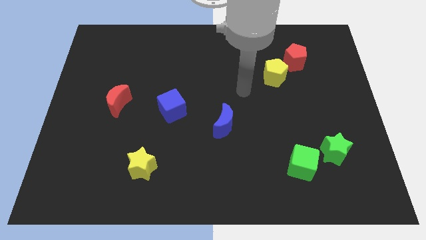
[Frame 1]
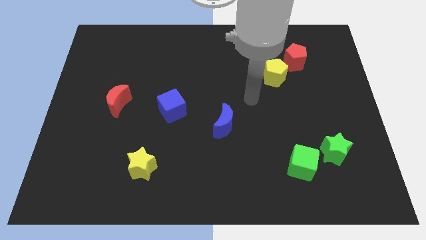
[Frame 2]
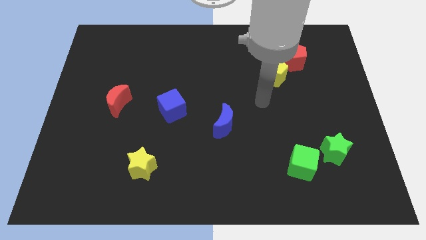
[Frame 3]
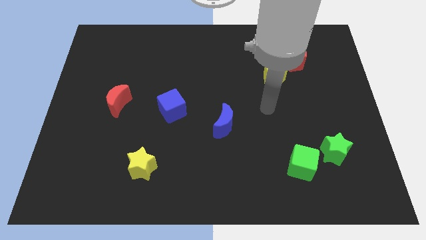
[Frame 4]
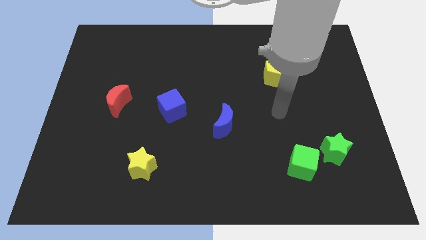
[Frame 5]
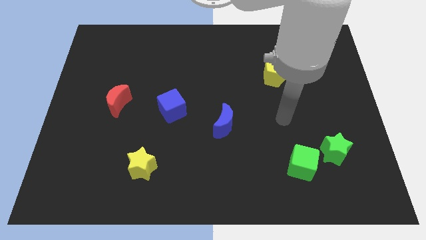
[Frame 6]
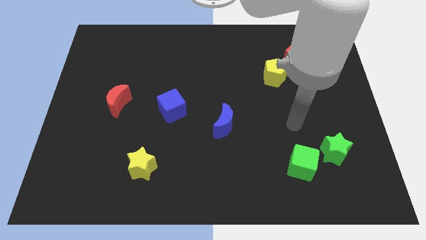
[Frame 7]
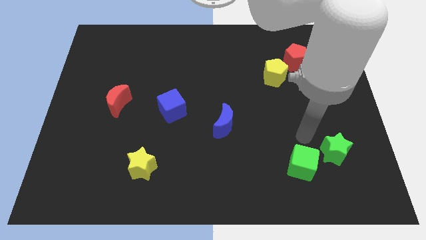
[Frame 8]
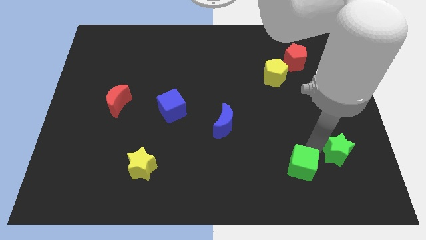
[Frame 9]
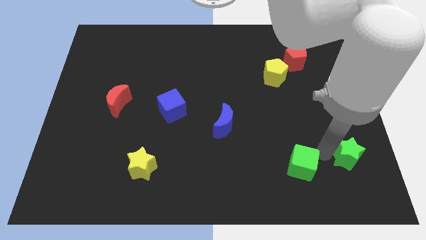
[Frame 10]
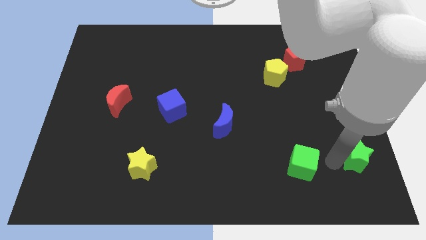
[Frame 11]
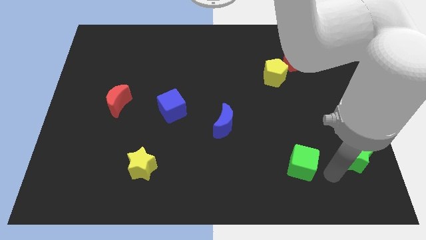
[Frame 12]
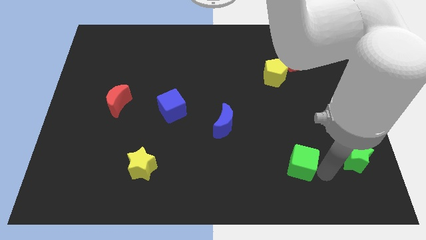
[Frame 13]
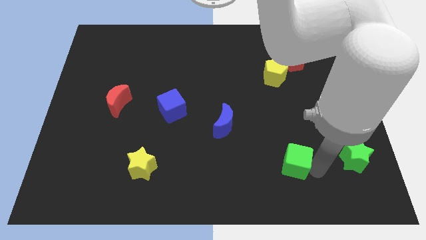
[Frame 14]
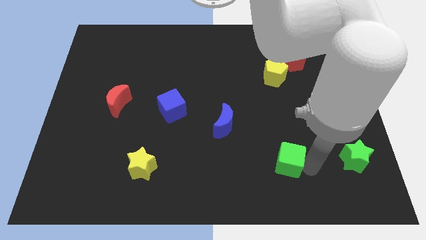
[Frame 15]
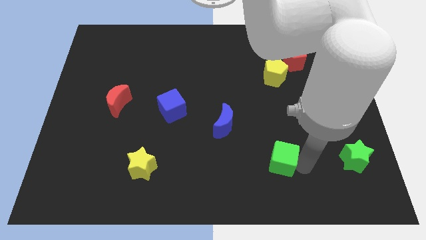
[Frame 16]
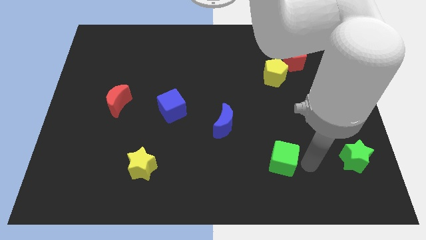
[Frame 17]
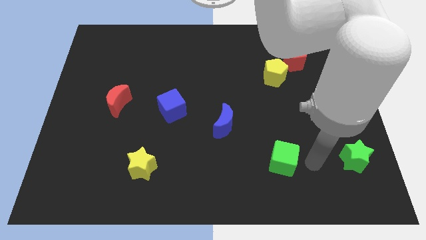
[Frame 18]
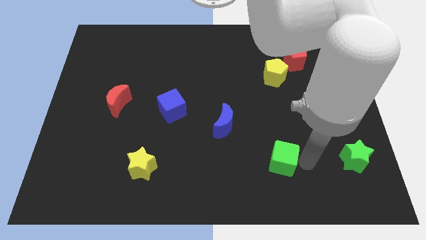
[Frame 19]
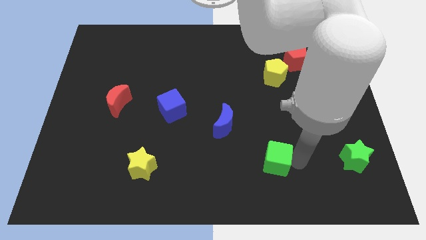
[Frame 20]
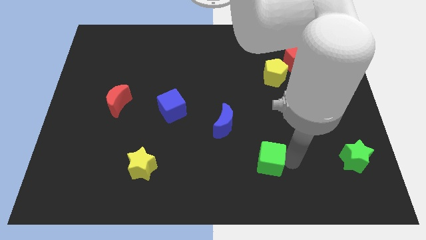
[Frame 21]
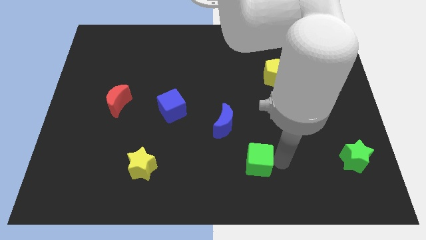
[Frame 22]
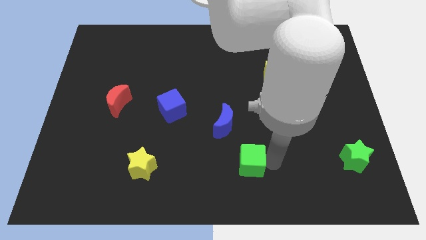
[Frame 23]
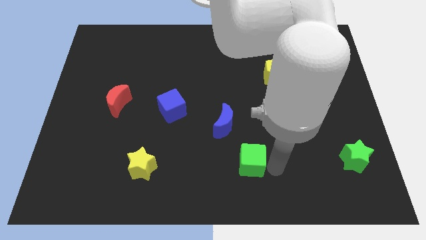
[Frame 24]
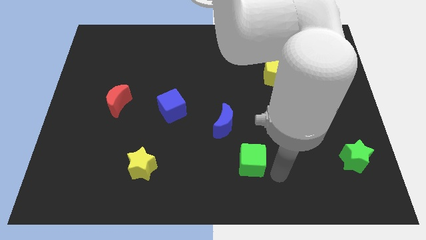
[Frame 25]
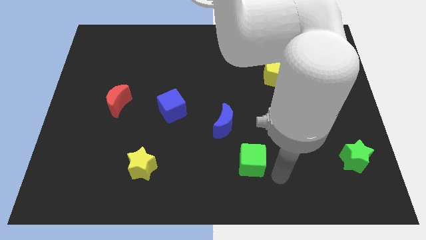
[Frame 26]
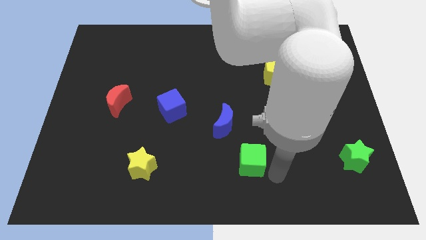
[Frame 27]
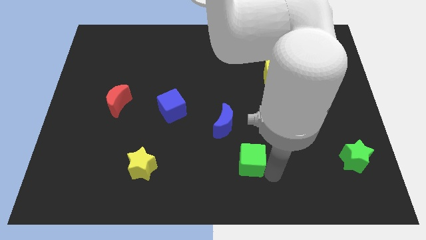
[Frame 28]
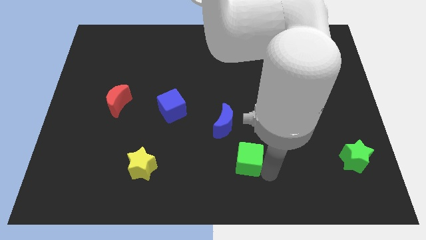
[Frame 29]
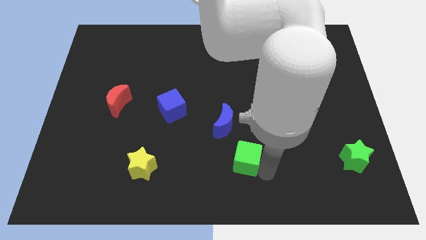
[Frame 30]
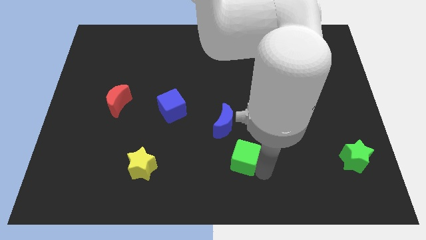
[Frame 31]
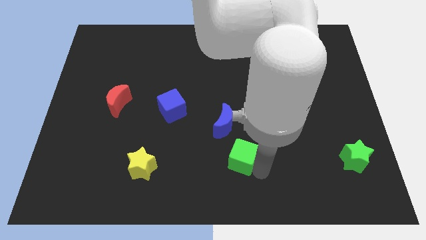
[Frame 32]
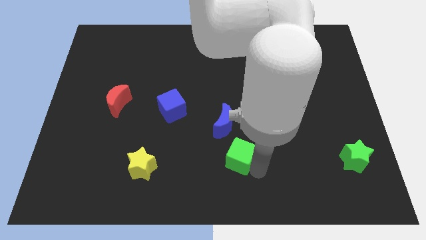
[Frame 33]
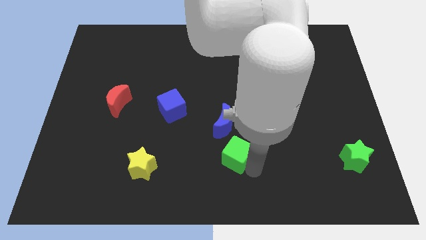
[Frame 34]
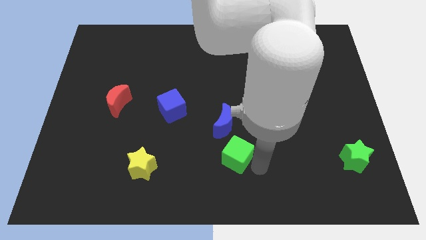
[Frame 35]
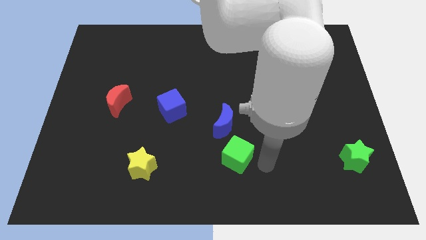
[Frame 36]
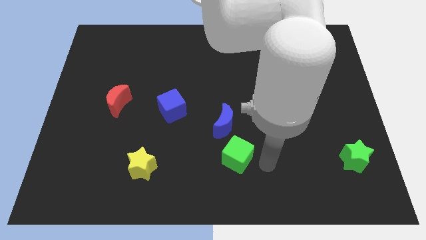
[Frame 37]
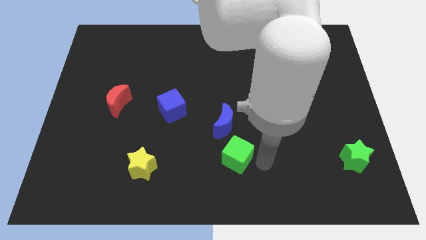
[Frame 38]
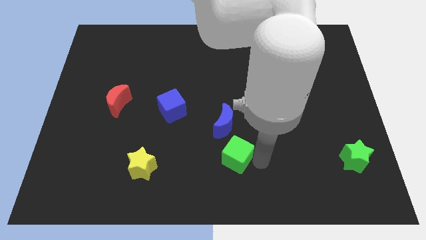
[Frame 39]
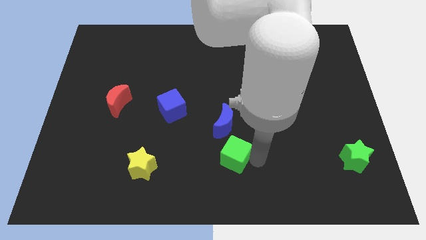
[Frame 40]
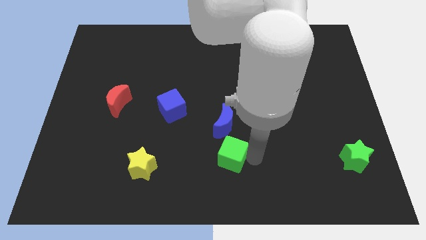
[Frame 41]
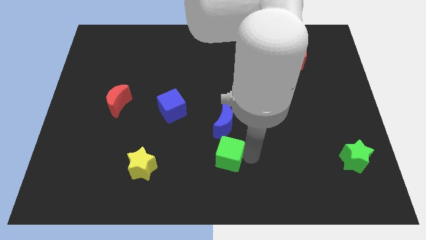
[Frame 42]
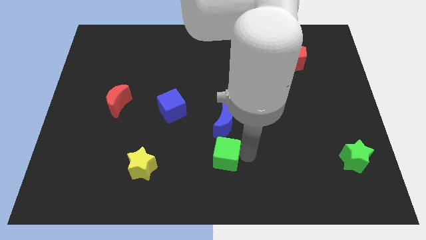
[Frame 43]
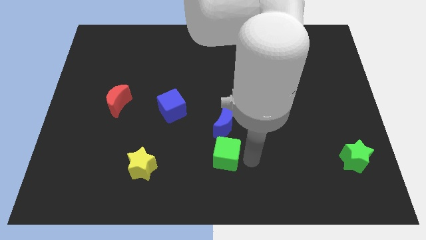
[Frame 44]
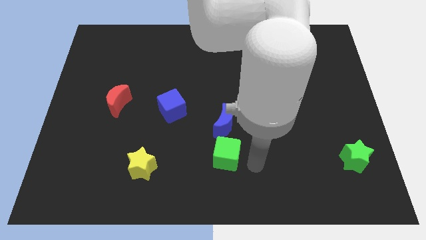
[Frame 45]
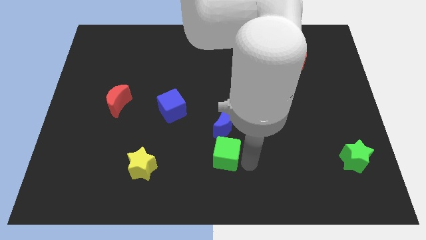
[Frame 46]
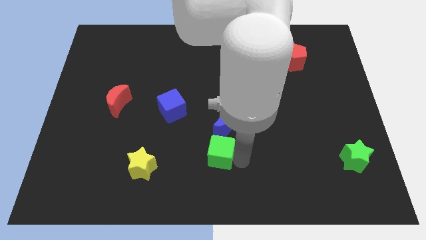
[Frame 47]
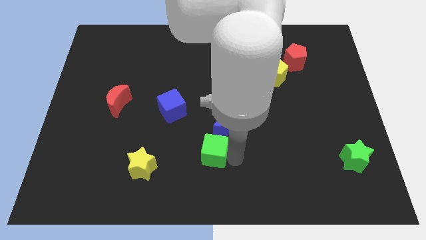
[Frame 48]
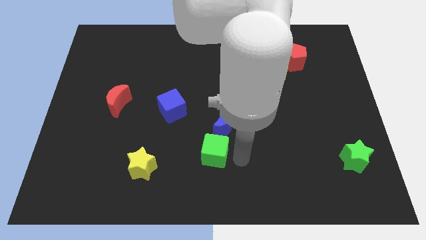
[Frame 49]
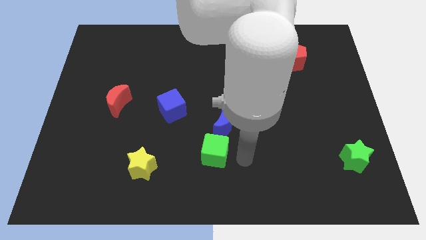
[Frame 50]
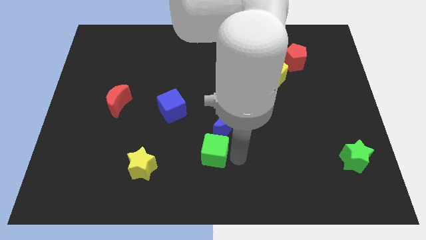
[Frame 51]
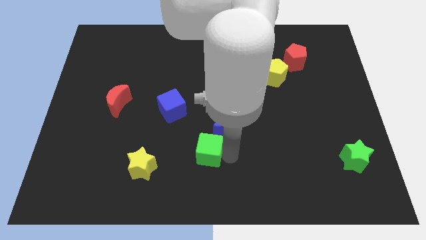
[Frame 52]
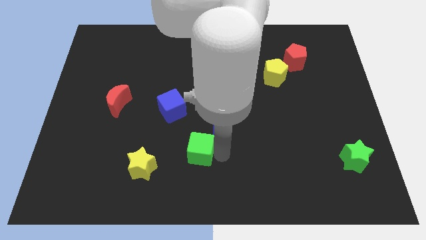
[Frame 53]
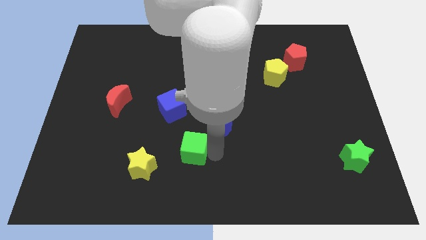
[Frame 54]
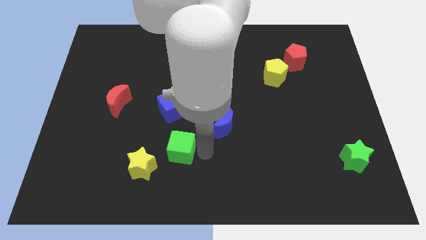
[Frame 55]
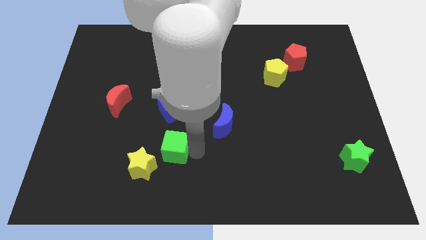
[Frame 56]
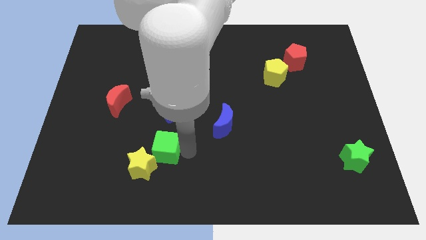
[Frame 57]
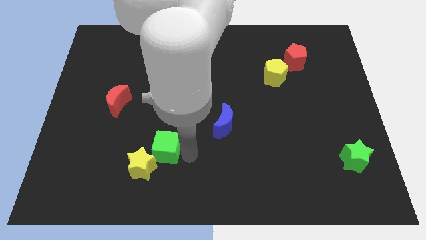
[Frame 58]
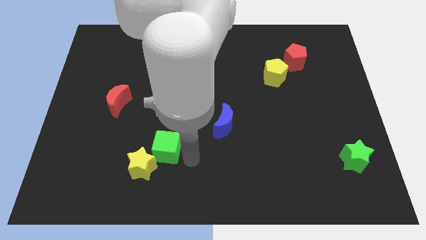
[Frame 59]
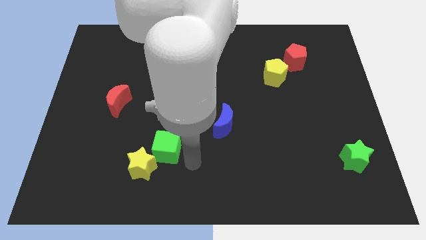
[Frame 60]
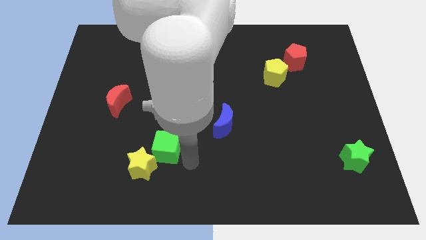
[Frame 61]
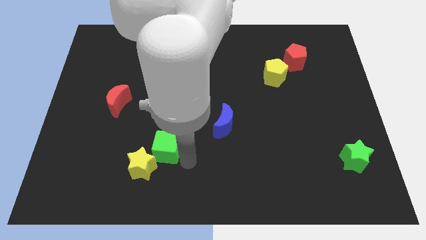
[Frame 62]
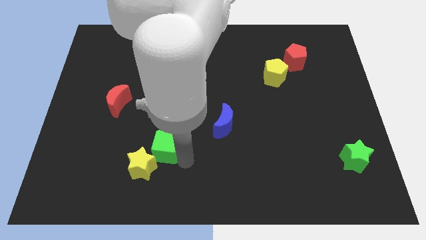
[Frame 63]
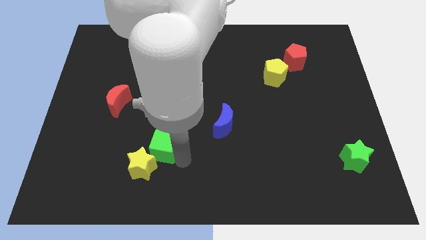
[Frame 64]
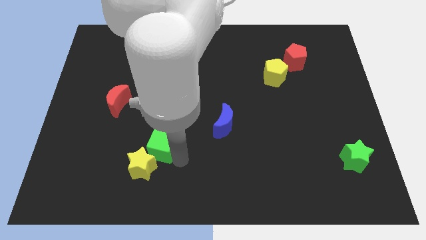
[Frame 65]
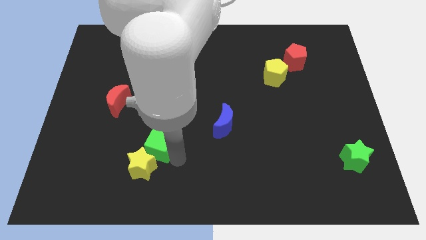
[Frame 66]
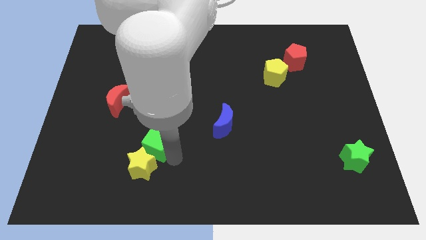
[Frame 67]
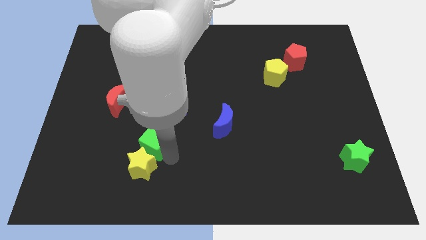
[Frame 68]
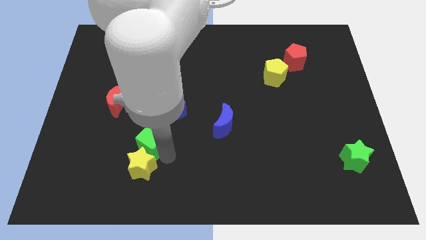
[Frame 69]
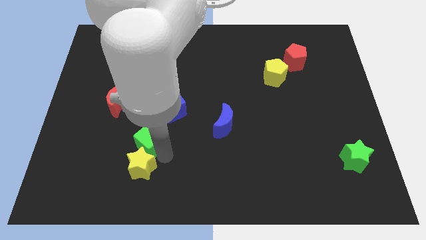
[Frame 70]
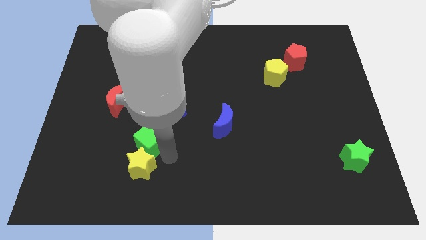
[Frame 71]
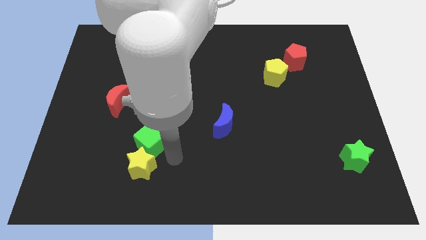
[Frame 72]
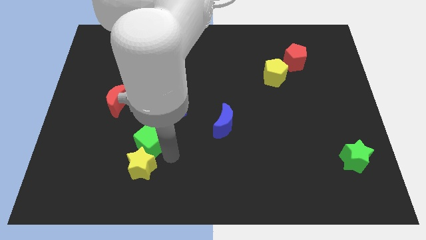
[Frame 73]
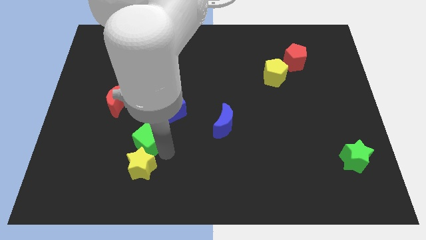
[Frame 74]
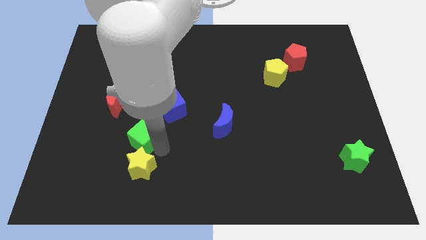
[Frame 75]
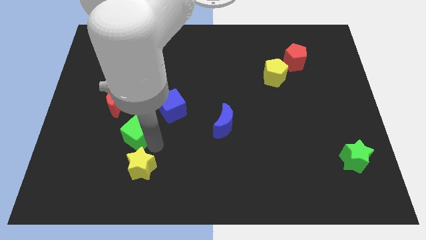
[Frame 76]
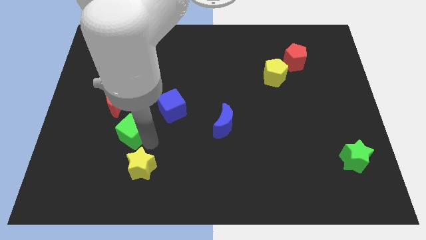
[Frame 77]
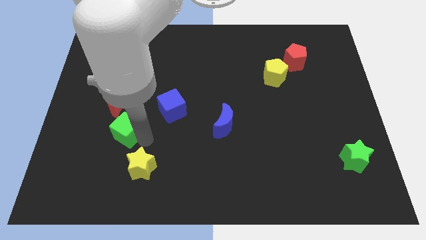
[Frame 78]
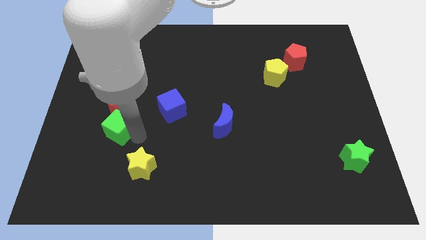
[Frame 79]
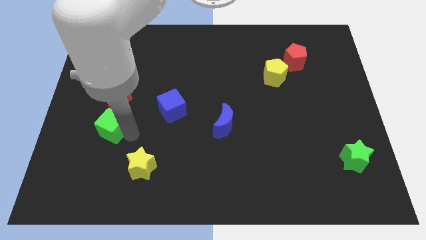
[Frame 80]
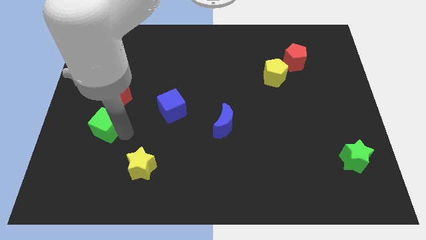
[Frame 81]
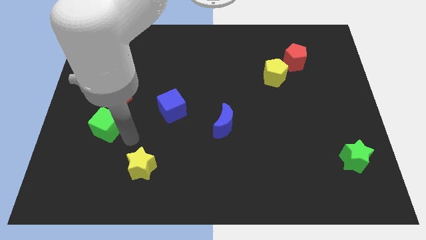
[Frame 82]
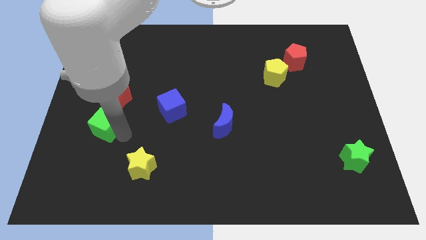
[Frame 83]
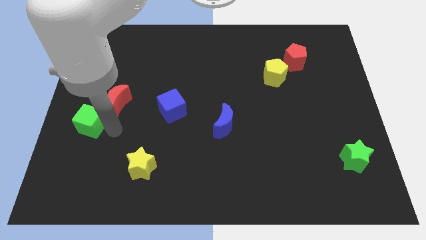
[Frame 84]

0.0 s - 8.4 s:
move the green cube to the center left
